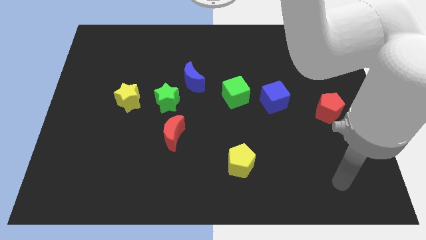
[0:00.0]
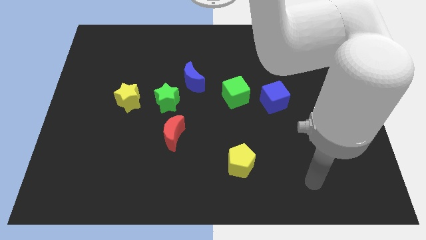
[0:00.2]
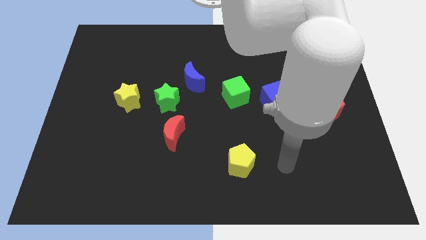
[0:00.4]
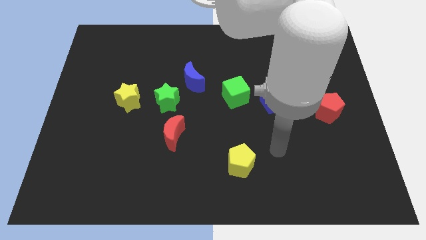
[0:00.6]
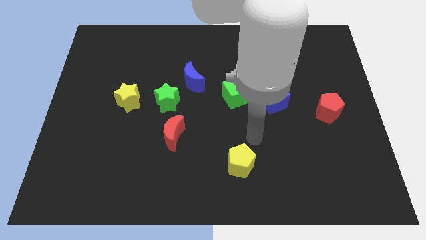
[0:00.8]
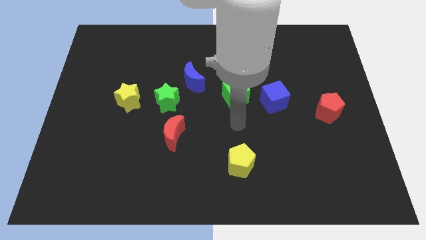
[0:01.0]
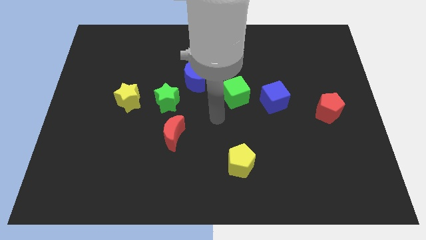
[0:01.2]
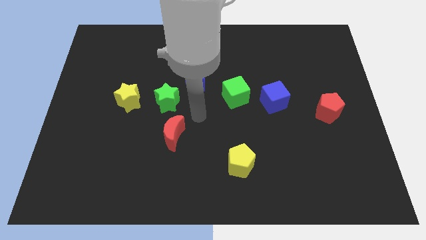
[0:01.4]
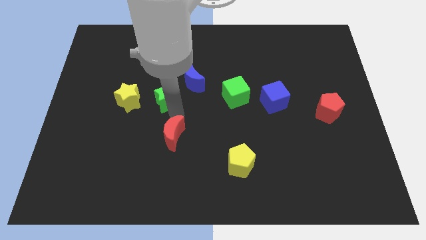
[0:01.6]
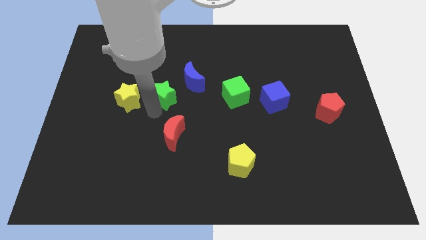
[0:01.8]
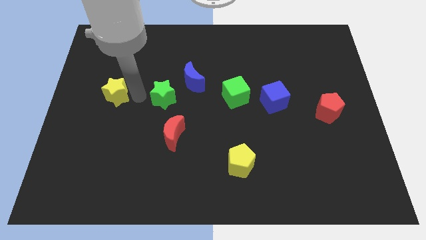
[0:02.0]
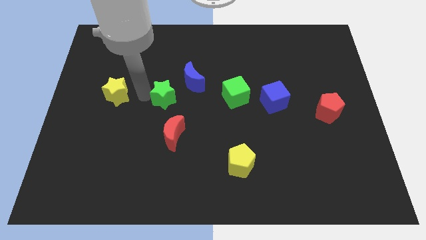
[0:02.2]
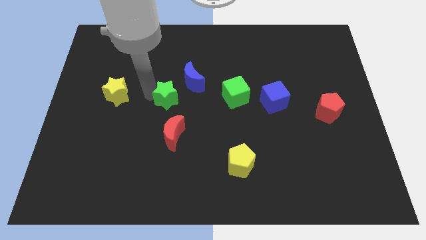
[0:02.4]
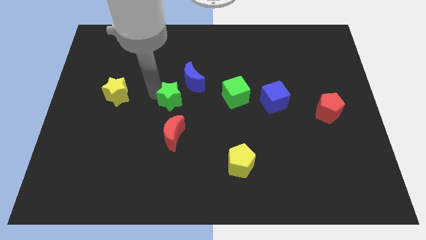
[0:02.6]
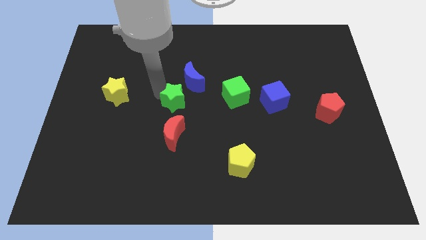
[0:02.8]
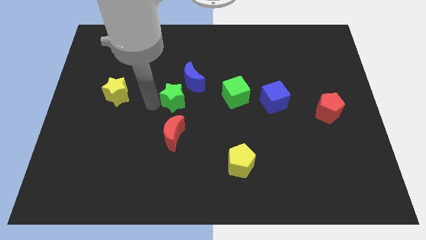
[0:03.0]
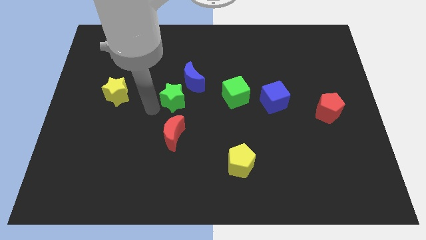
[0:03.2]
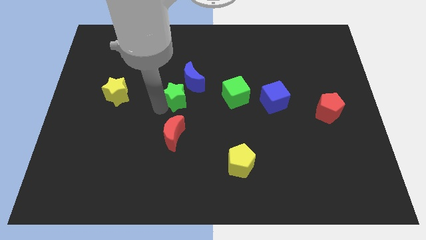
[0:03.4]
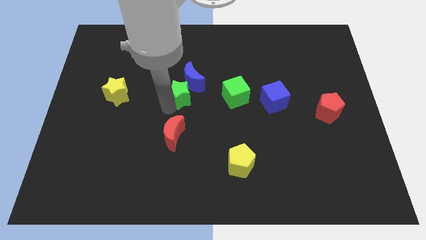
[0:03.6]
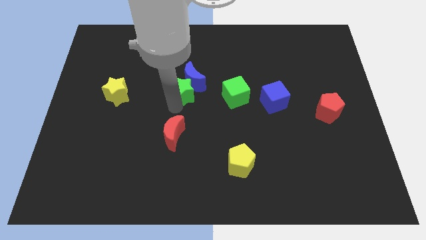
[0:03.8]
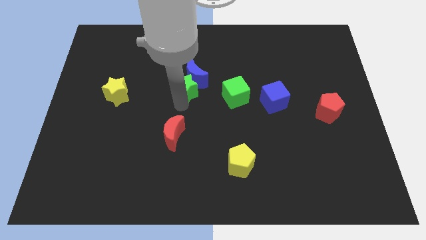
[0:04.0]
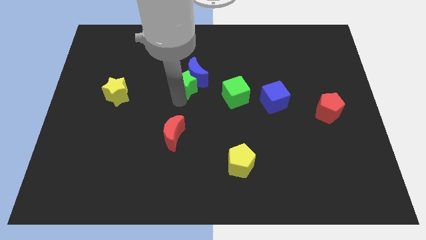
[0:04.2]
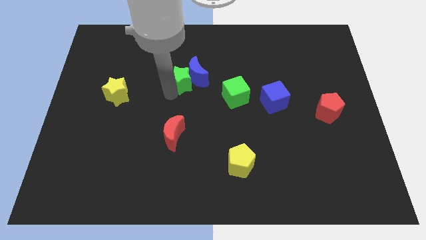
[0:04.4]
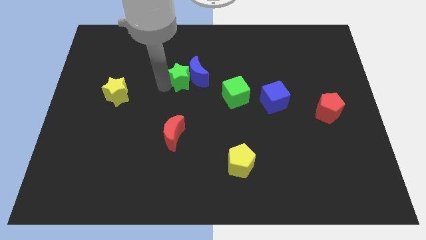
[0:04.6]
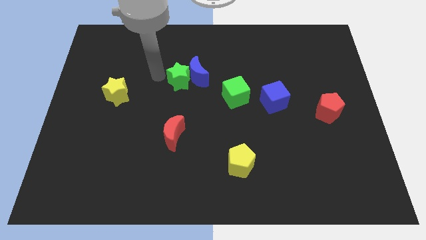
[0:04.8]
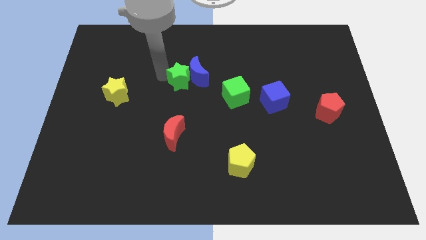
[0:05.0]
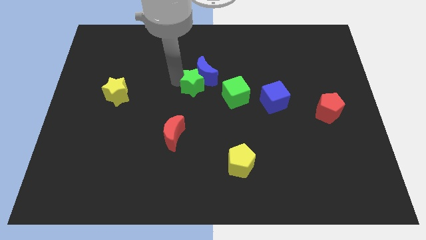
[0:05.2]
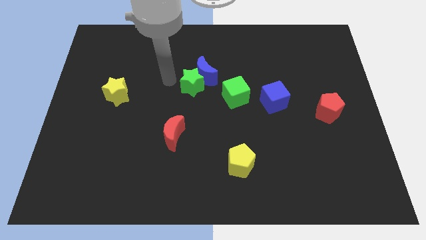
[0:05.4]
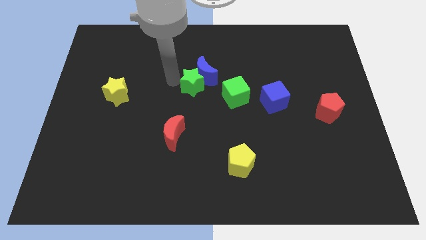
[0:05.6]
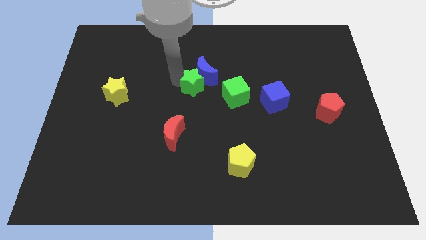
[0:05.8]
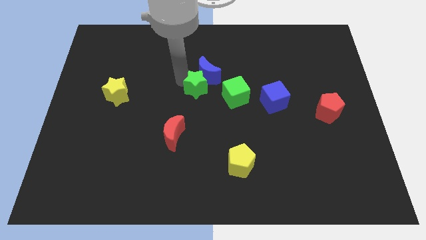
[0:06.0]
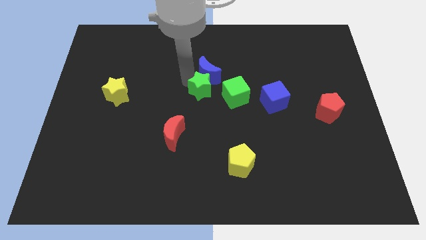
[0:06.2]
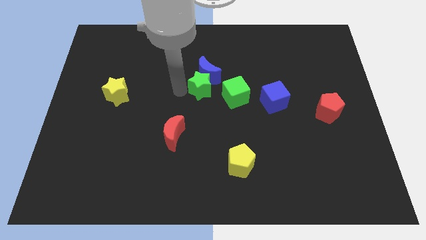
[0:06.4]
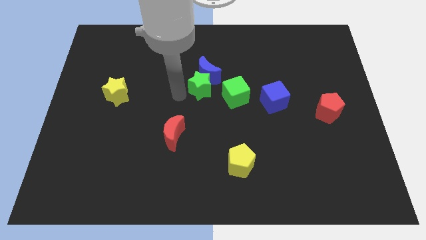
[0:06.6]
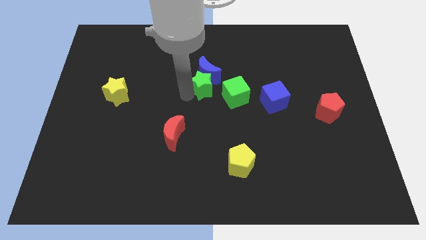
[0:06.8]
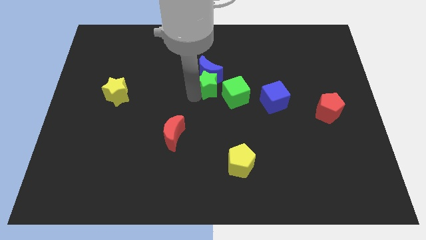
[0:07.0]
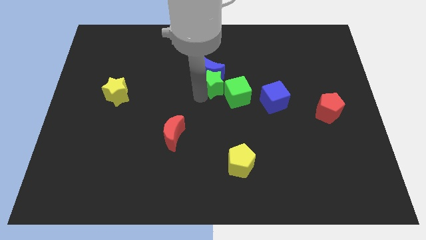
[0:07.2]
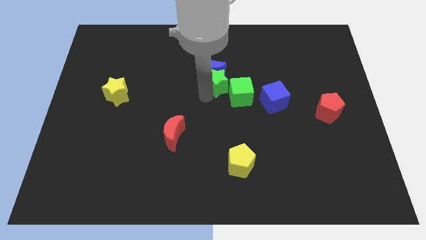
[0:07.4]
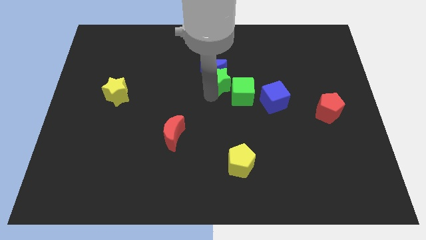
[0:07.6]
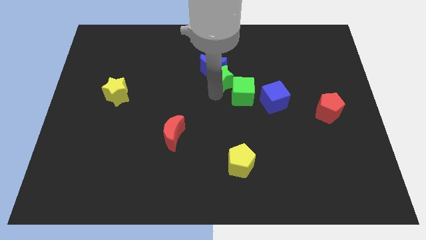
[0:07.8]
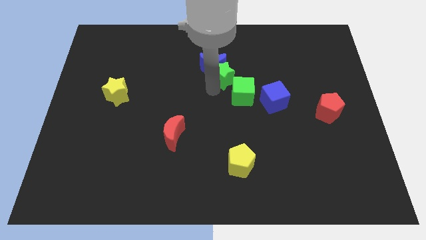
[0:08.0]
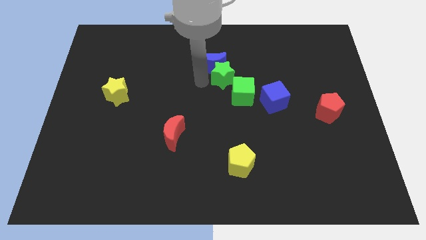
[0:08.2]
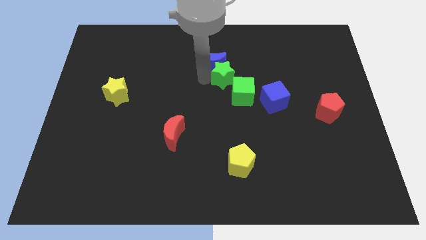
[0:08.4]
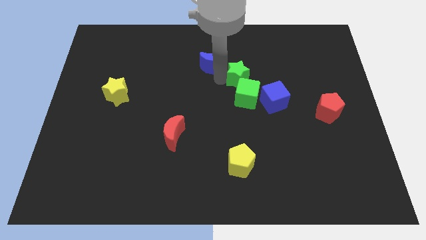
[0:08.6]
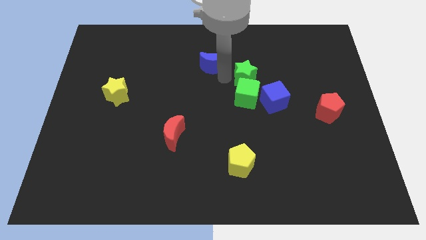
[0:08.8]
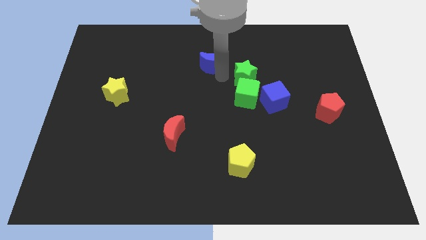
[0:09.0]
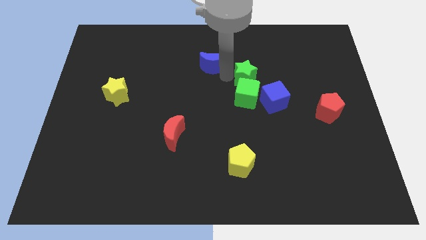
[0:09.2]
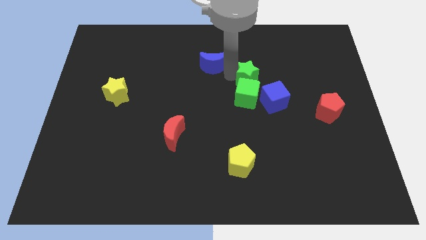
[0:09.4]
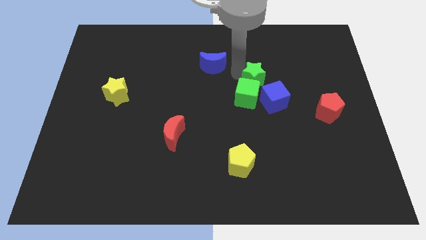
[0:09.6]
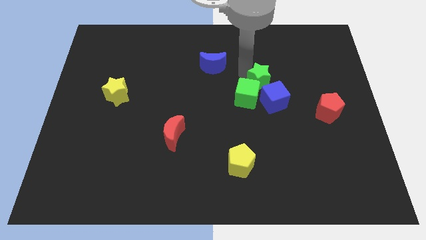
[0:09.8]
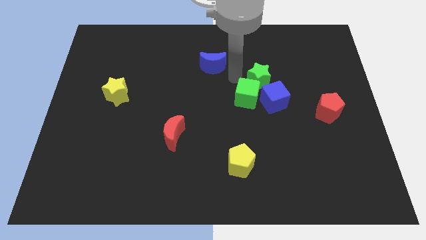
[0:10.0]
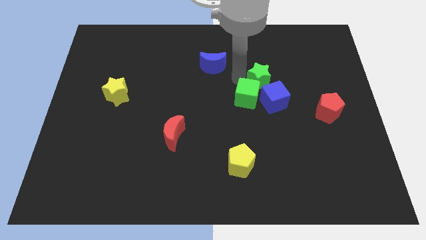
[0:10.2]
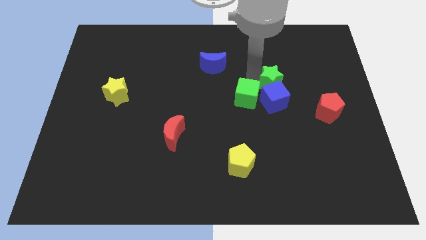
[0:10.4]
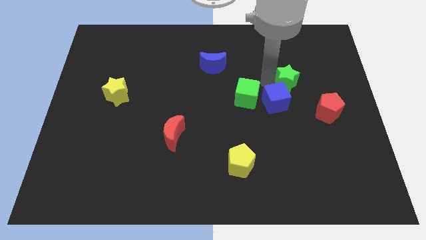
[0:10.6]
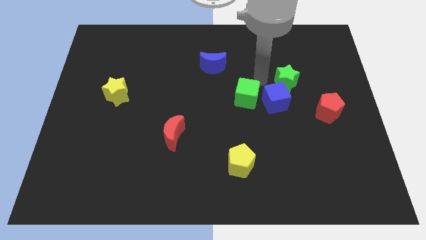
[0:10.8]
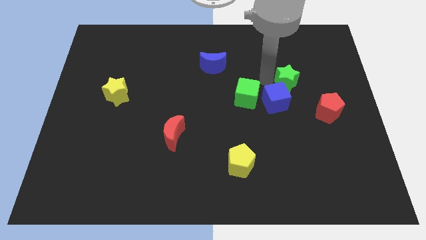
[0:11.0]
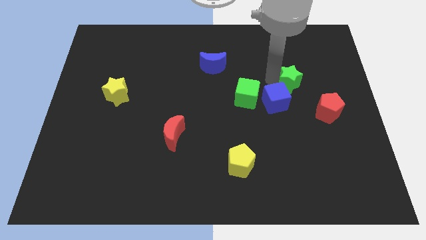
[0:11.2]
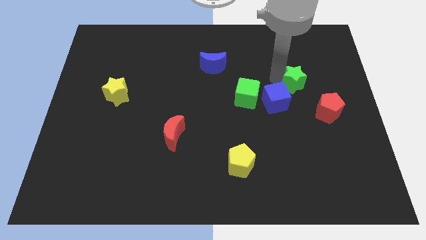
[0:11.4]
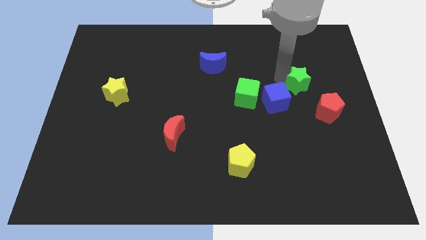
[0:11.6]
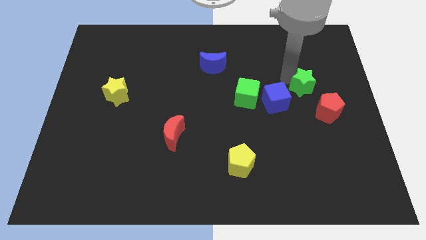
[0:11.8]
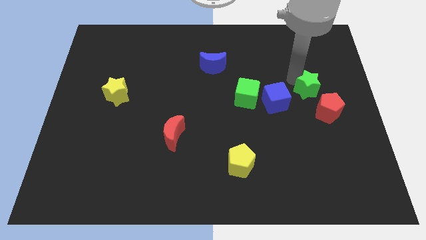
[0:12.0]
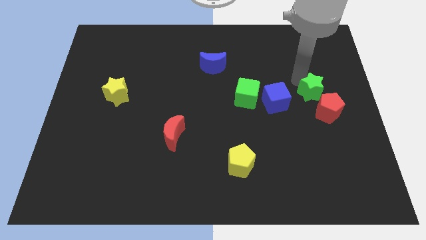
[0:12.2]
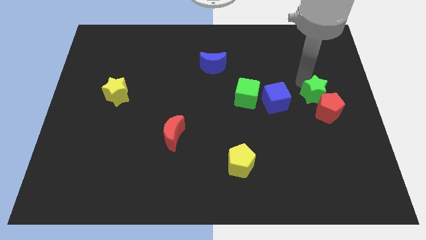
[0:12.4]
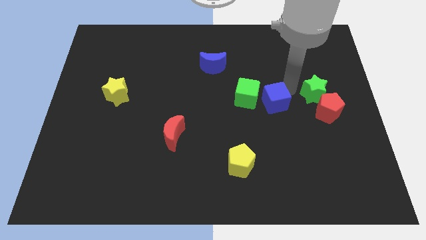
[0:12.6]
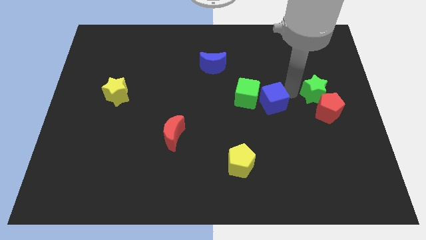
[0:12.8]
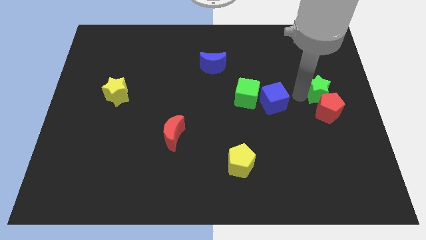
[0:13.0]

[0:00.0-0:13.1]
slide the green star to the right side of the board
